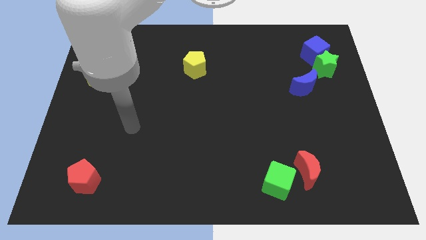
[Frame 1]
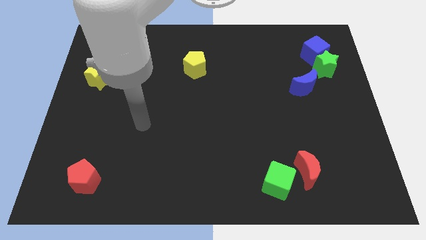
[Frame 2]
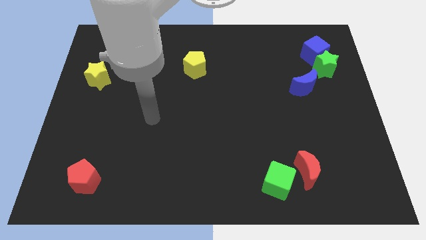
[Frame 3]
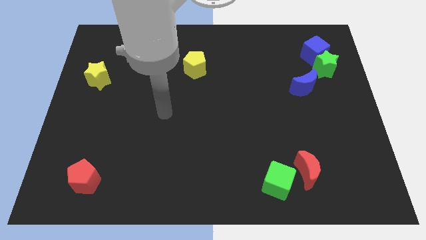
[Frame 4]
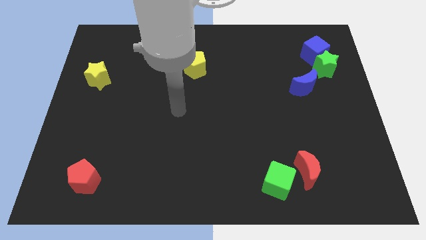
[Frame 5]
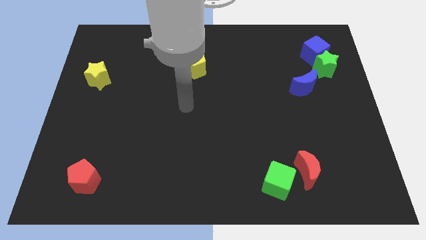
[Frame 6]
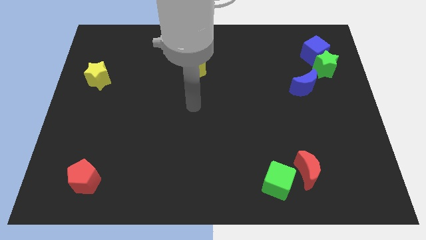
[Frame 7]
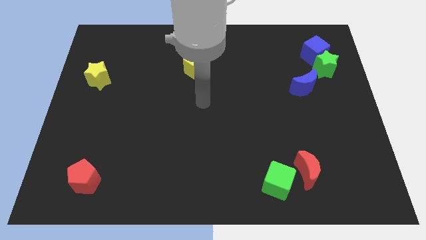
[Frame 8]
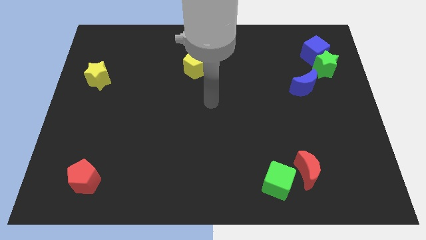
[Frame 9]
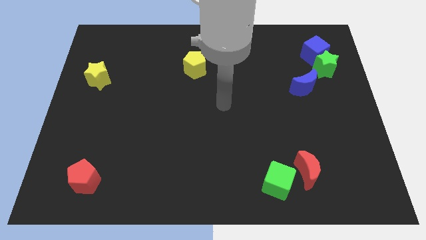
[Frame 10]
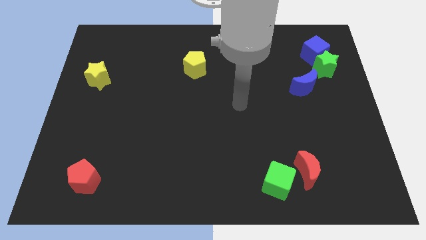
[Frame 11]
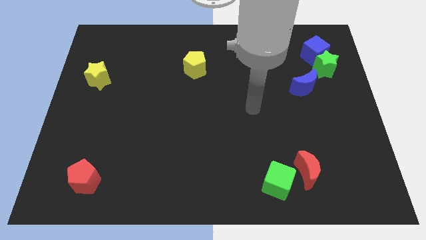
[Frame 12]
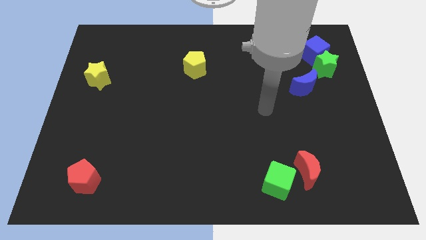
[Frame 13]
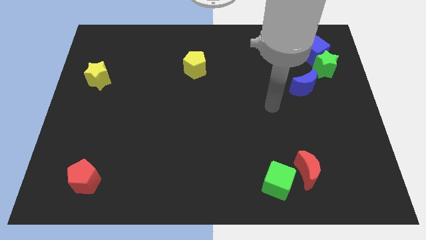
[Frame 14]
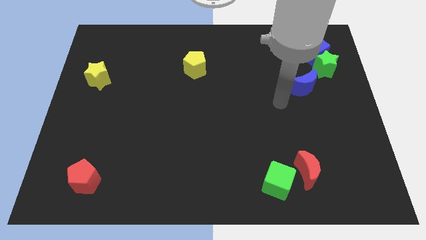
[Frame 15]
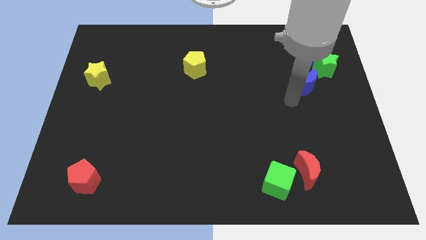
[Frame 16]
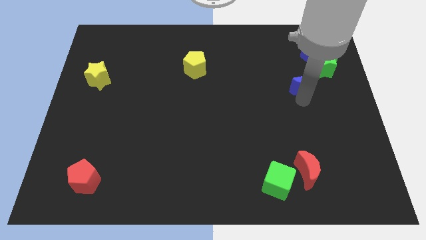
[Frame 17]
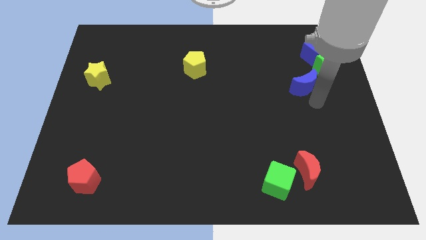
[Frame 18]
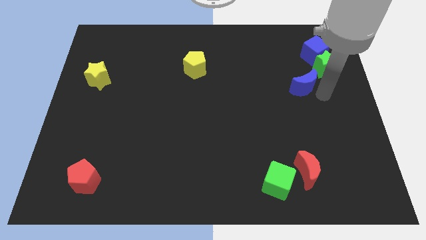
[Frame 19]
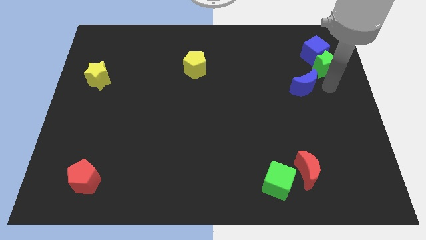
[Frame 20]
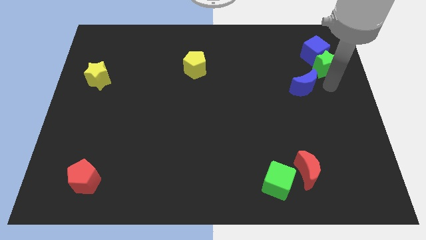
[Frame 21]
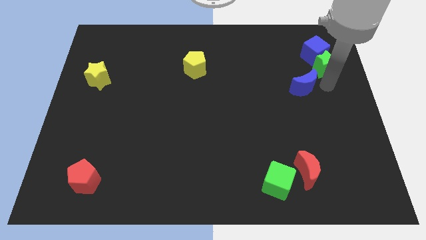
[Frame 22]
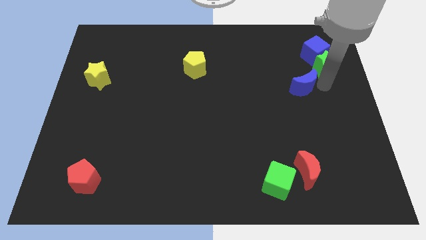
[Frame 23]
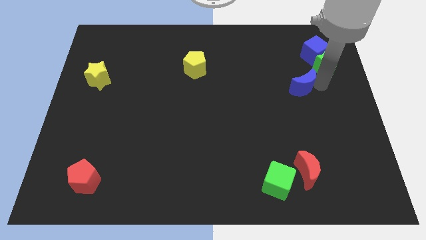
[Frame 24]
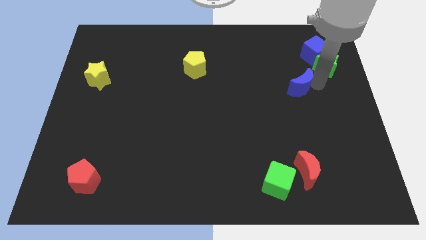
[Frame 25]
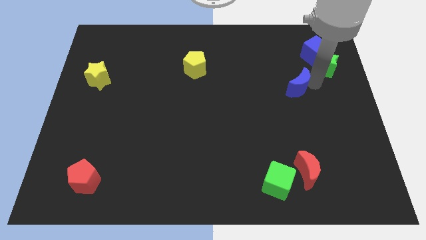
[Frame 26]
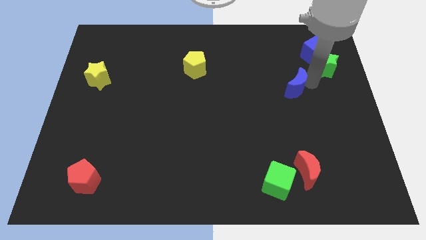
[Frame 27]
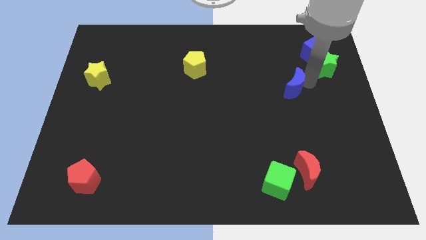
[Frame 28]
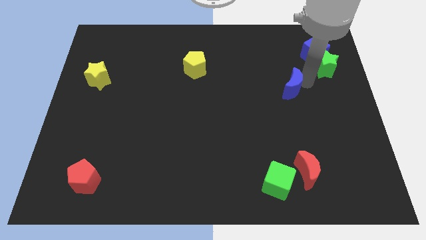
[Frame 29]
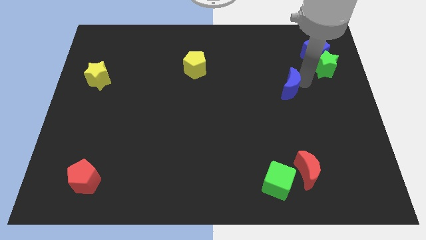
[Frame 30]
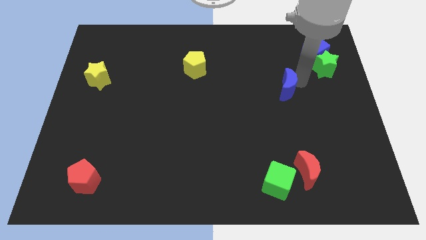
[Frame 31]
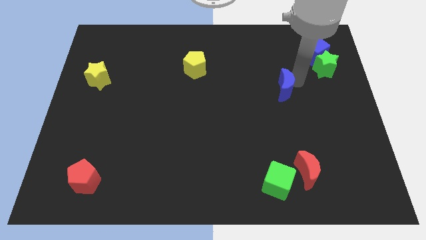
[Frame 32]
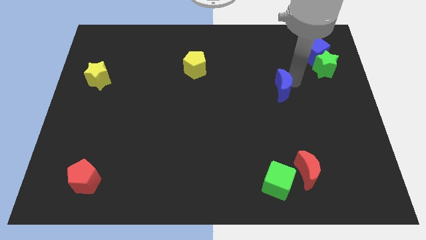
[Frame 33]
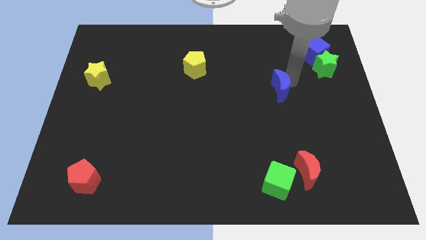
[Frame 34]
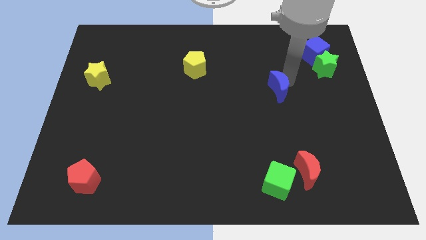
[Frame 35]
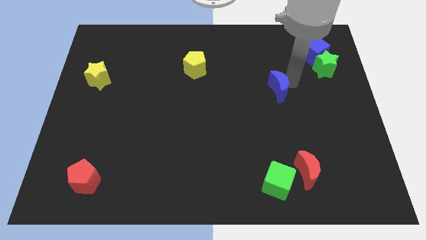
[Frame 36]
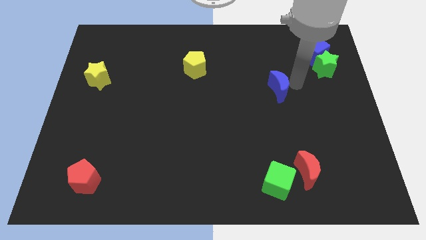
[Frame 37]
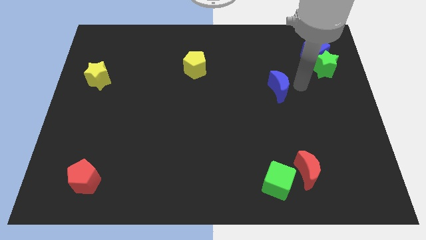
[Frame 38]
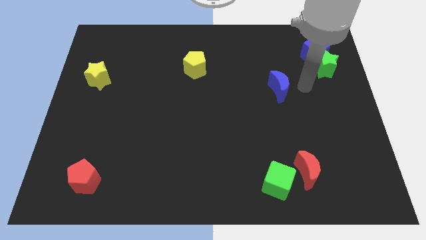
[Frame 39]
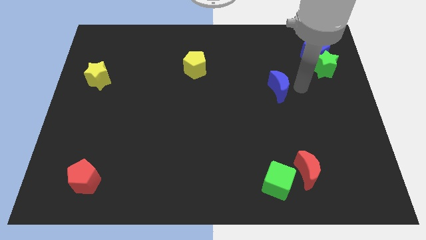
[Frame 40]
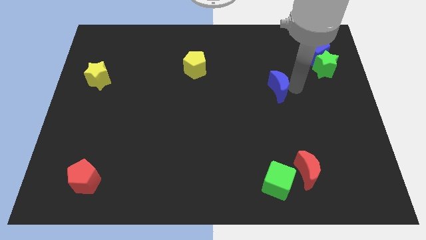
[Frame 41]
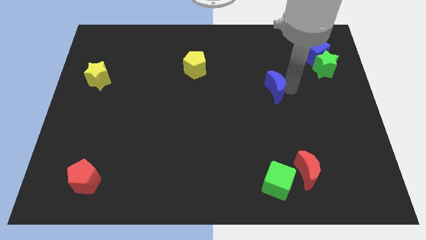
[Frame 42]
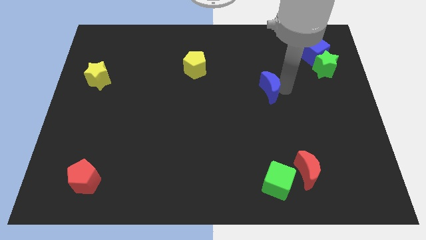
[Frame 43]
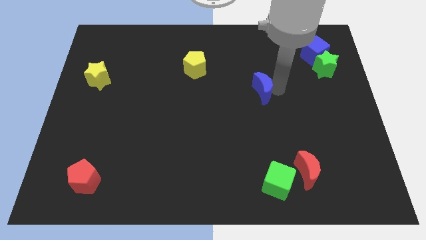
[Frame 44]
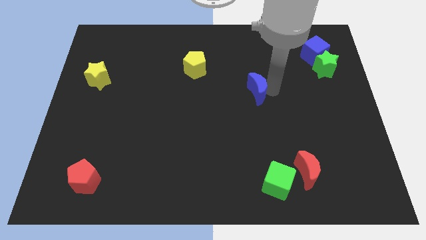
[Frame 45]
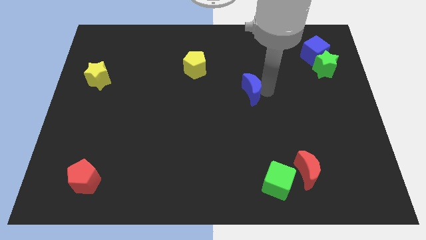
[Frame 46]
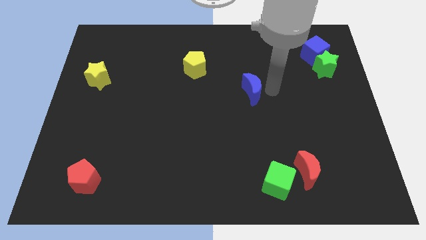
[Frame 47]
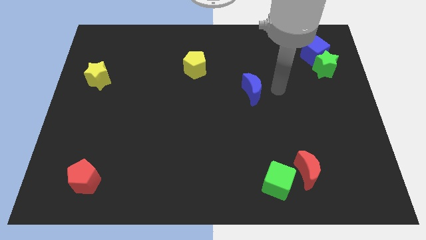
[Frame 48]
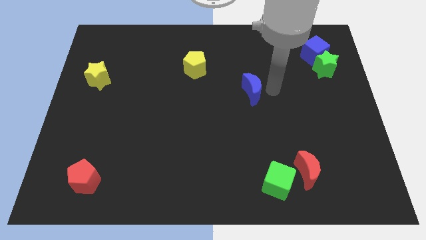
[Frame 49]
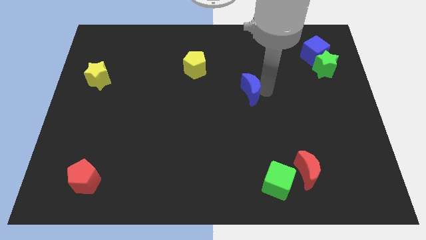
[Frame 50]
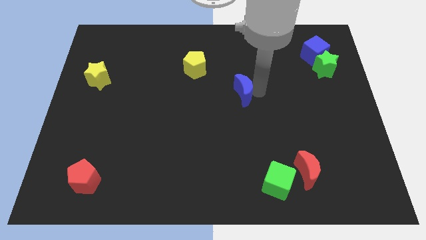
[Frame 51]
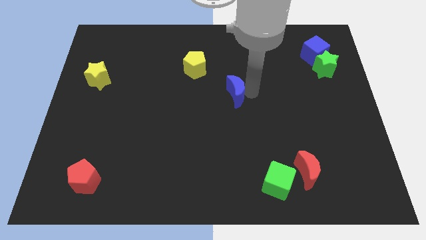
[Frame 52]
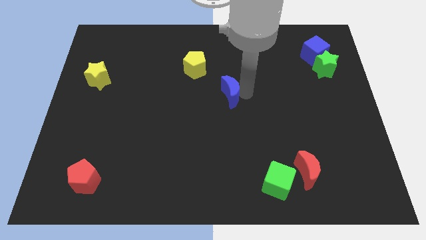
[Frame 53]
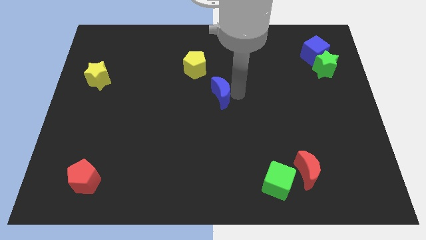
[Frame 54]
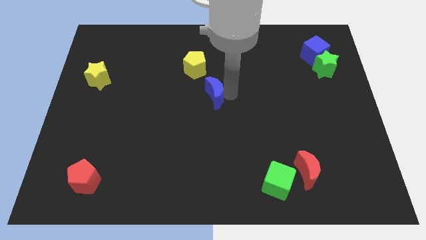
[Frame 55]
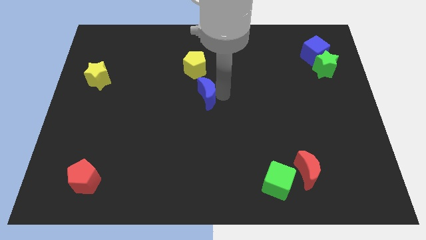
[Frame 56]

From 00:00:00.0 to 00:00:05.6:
move the blue moon to the bottom of the yellow pentagon

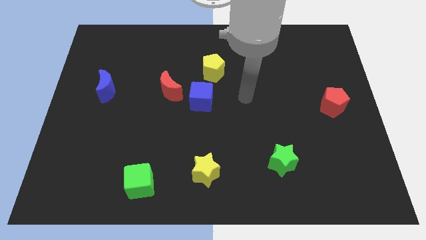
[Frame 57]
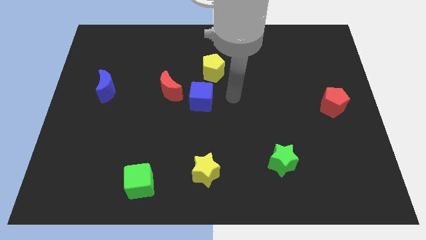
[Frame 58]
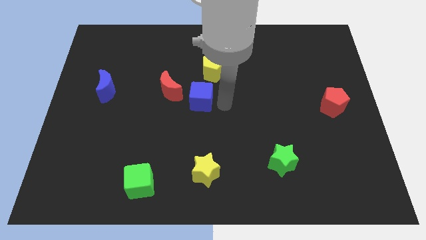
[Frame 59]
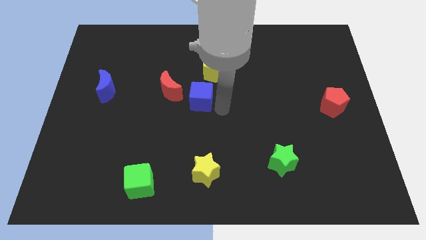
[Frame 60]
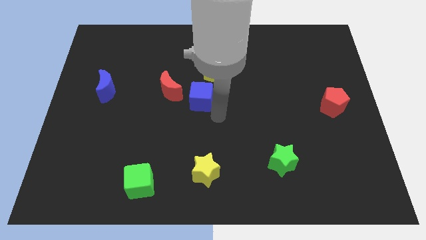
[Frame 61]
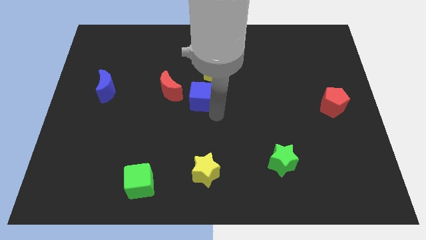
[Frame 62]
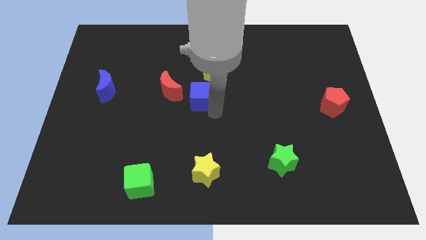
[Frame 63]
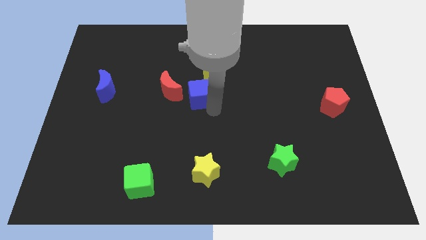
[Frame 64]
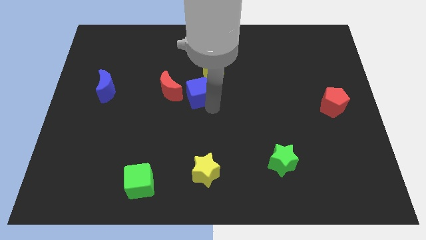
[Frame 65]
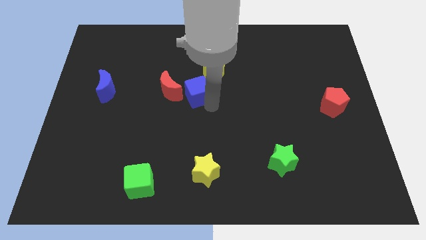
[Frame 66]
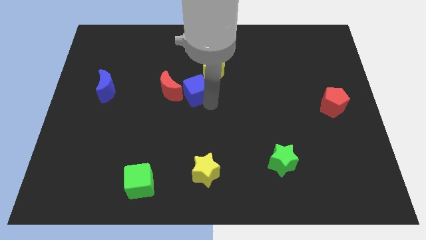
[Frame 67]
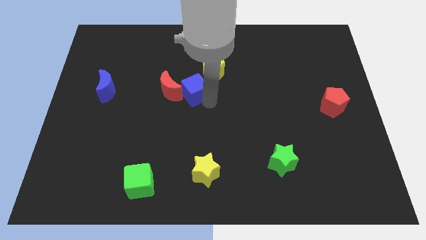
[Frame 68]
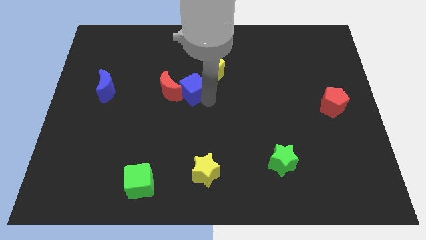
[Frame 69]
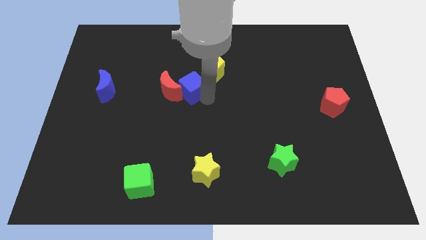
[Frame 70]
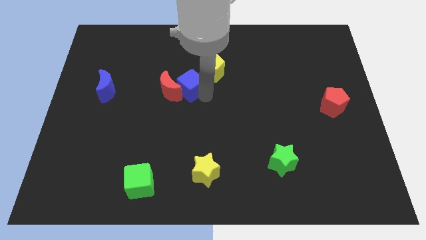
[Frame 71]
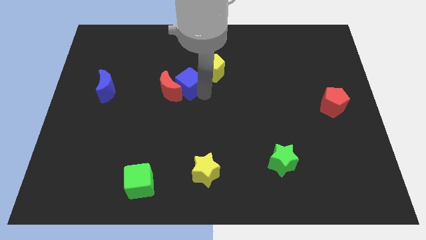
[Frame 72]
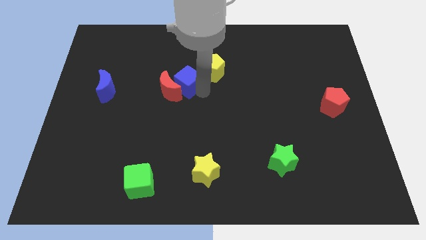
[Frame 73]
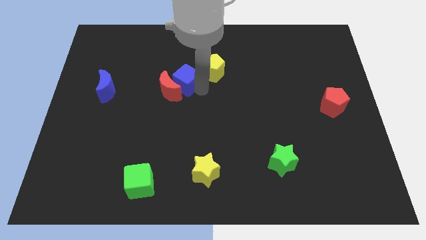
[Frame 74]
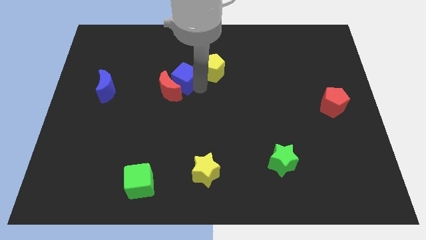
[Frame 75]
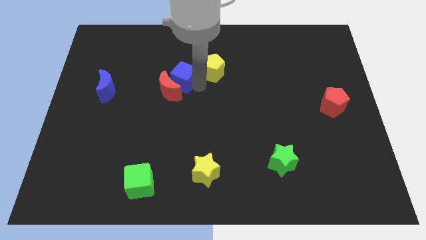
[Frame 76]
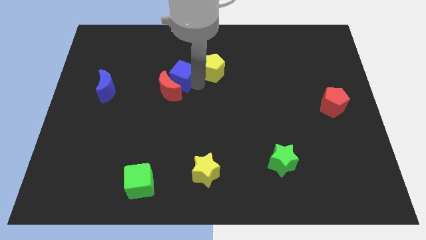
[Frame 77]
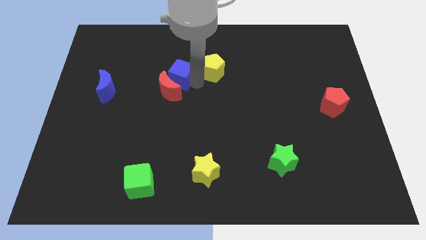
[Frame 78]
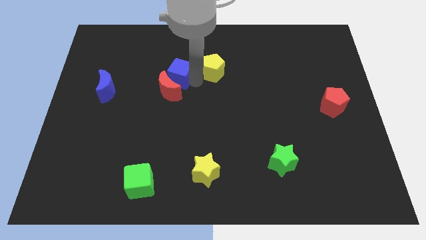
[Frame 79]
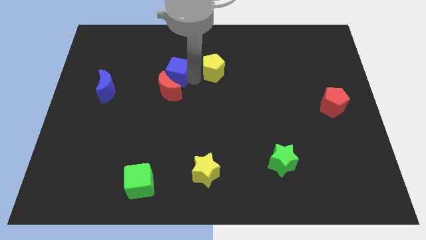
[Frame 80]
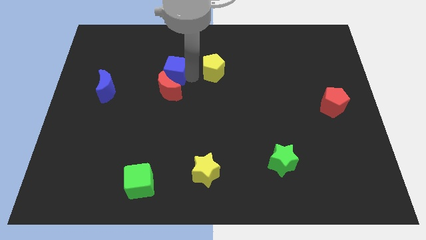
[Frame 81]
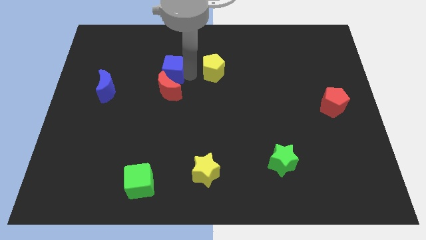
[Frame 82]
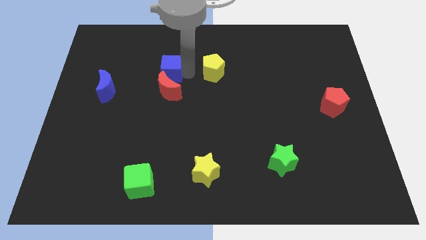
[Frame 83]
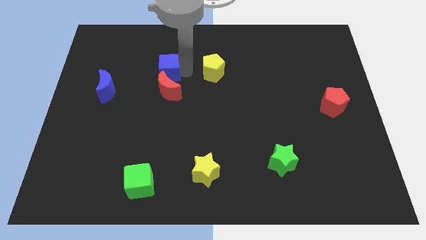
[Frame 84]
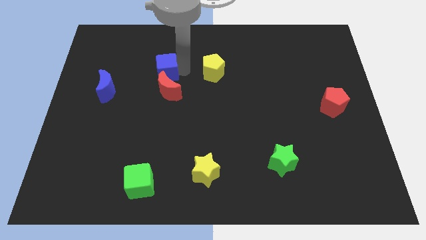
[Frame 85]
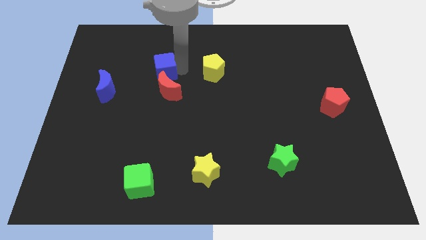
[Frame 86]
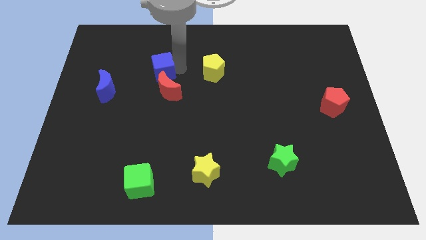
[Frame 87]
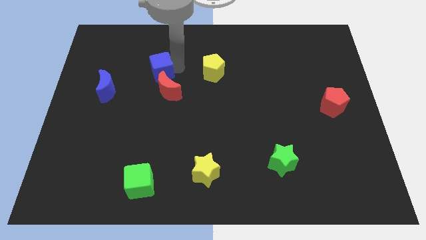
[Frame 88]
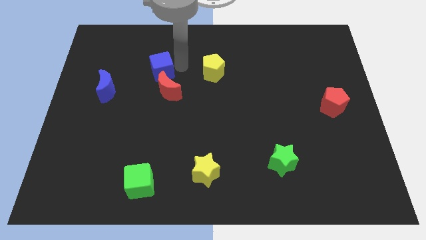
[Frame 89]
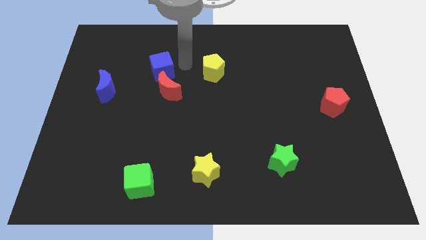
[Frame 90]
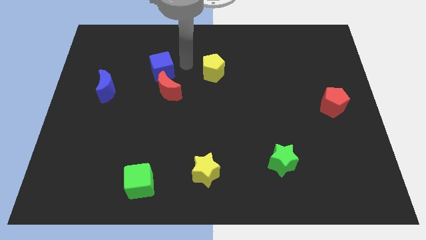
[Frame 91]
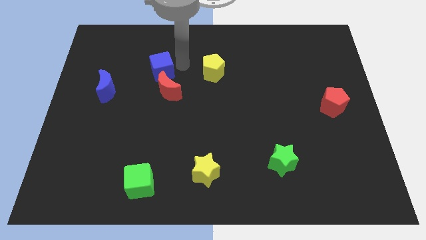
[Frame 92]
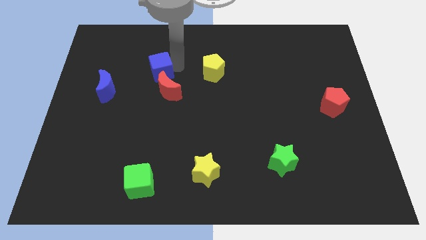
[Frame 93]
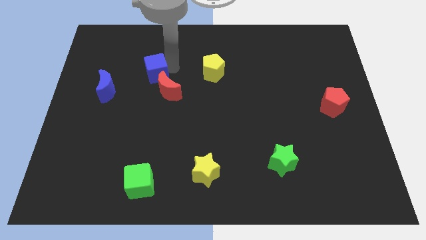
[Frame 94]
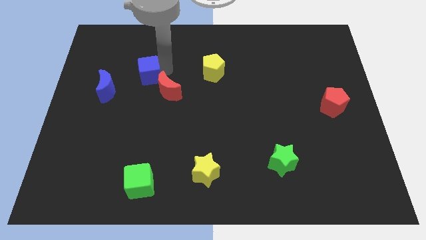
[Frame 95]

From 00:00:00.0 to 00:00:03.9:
put the blue cube to the top right side of the blue moon
